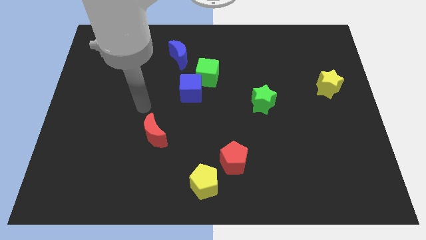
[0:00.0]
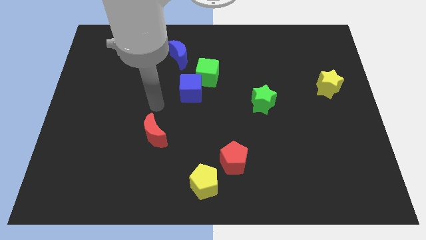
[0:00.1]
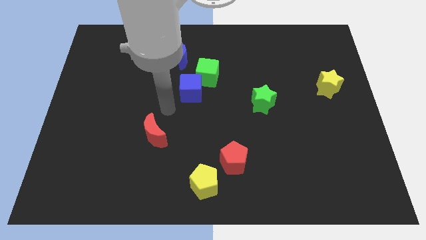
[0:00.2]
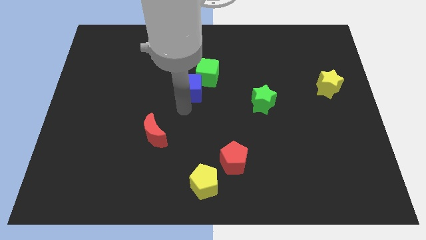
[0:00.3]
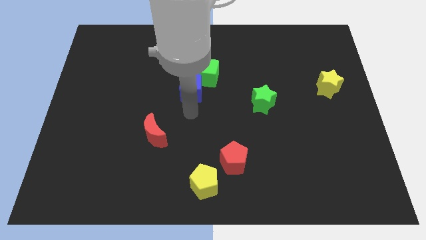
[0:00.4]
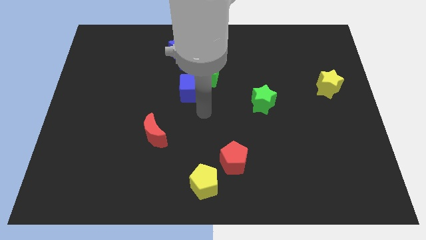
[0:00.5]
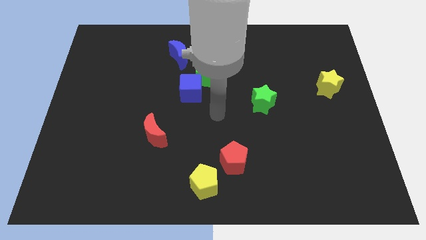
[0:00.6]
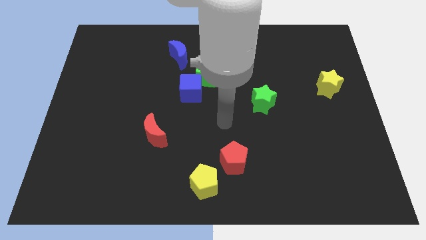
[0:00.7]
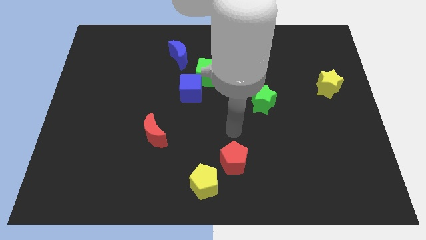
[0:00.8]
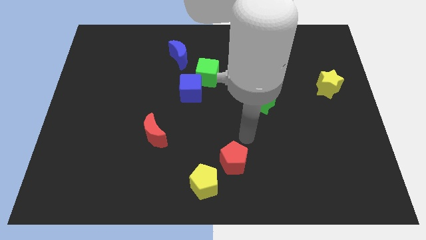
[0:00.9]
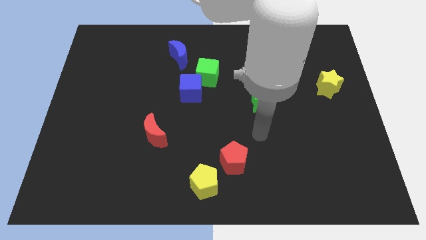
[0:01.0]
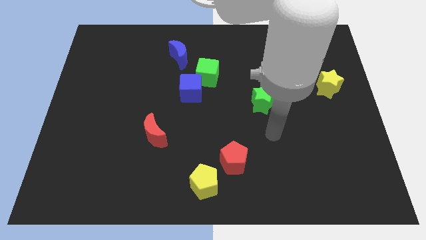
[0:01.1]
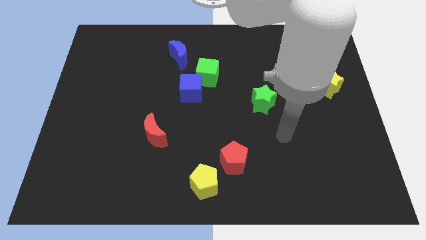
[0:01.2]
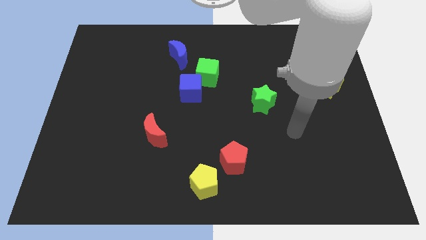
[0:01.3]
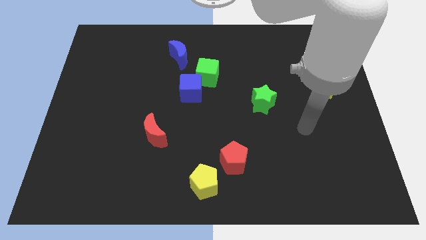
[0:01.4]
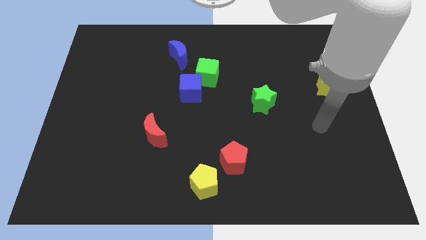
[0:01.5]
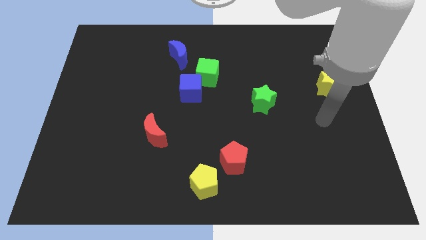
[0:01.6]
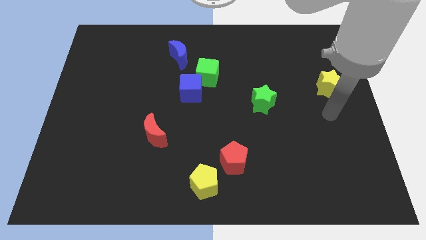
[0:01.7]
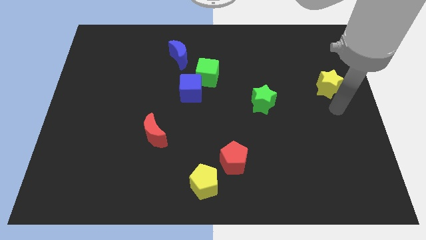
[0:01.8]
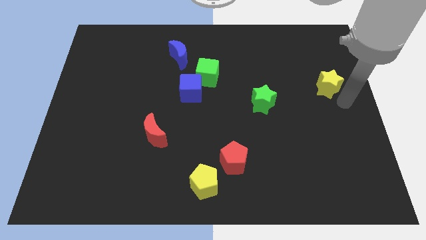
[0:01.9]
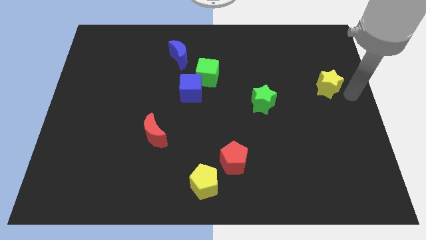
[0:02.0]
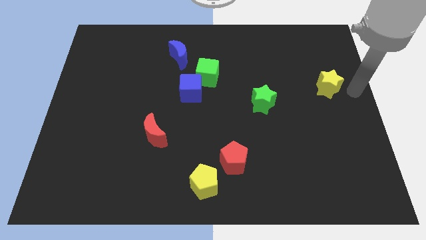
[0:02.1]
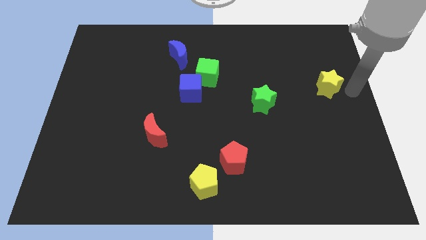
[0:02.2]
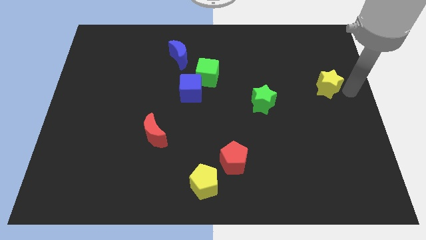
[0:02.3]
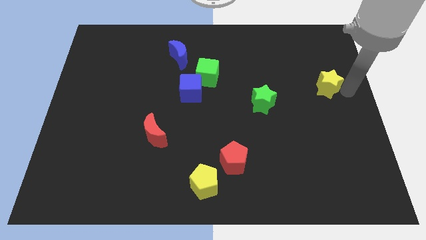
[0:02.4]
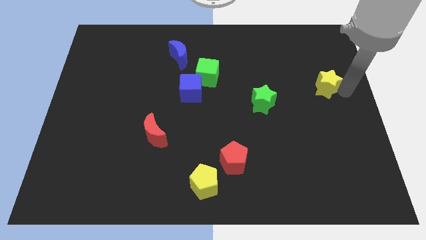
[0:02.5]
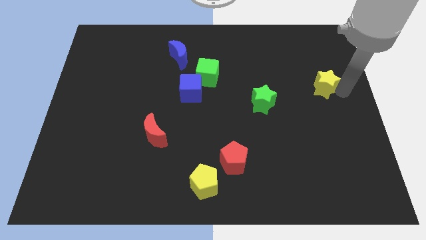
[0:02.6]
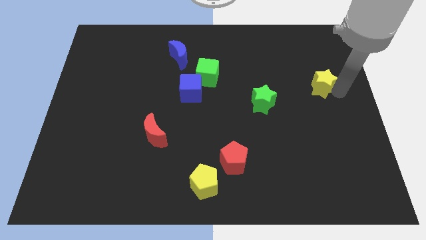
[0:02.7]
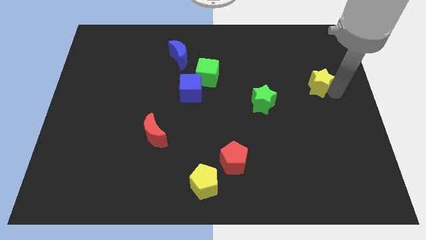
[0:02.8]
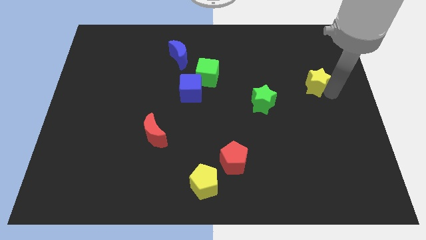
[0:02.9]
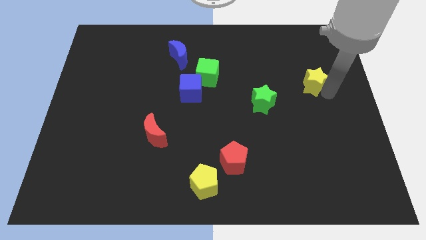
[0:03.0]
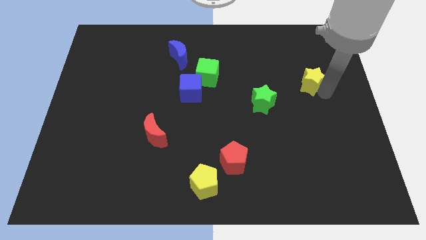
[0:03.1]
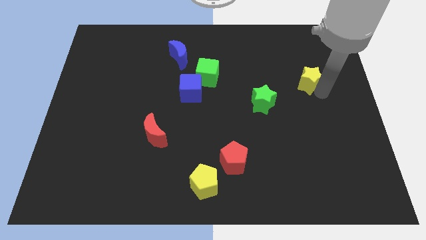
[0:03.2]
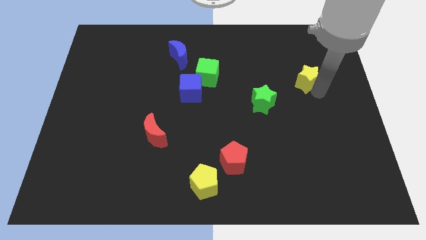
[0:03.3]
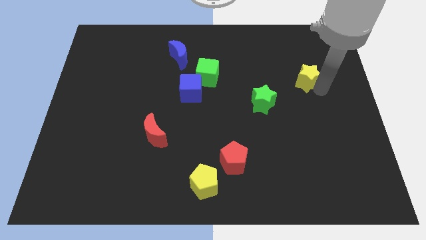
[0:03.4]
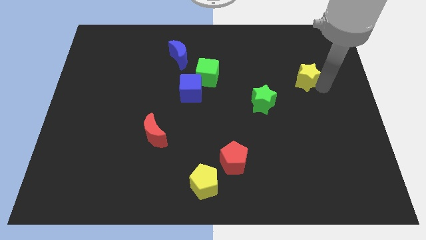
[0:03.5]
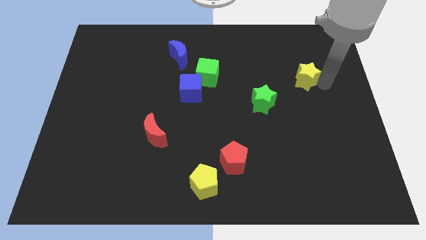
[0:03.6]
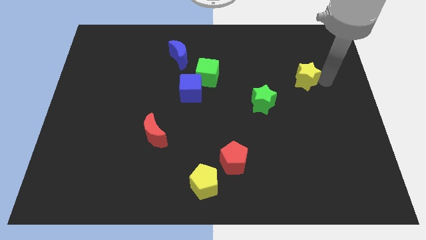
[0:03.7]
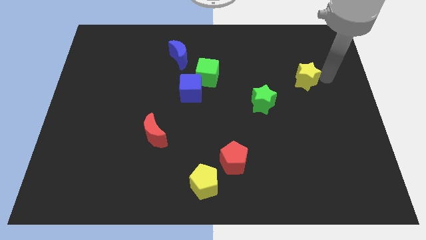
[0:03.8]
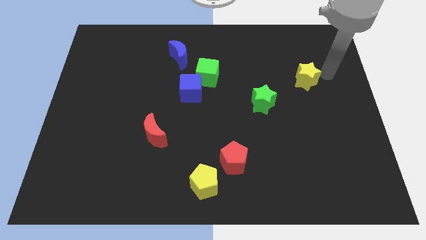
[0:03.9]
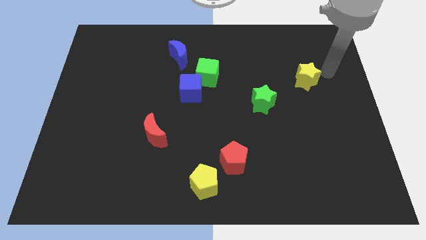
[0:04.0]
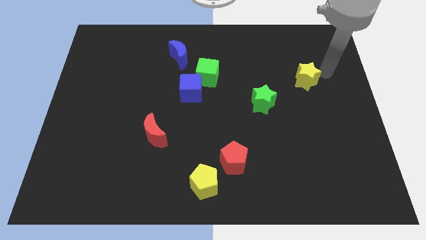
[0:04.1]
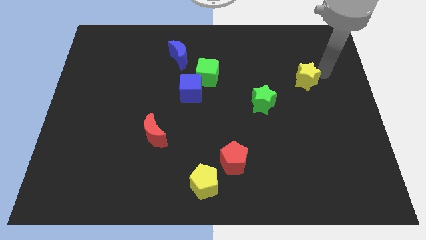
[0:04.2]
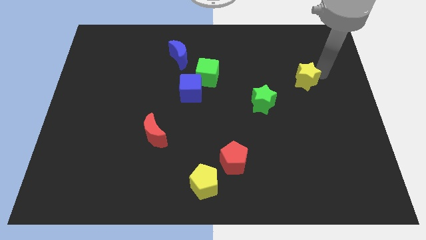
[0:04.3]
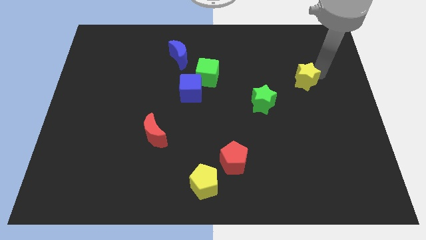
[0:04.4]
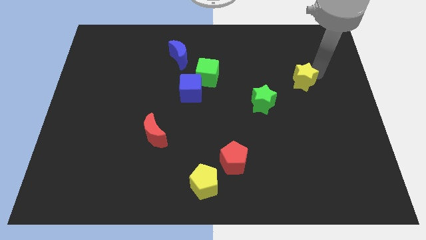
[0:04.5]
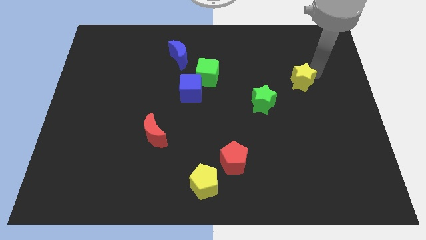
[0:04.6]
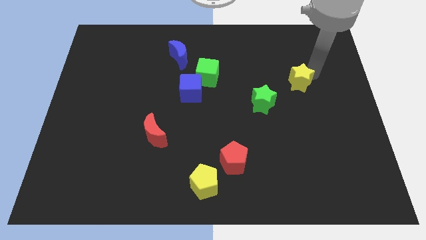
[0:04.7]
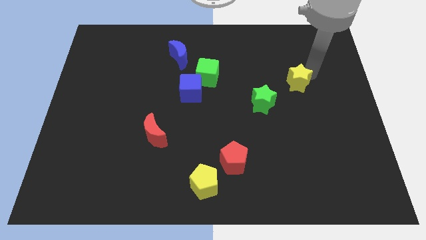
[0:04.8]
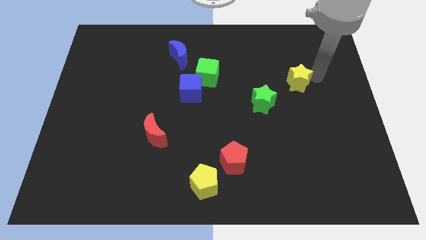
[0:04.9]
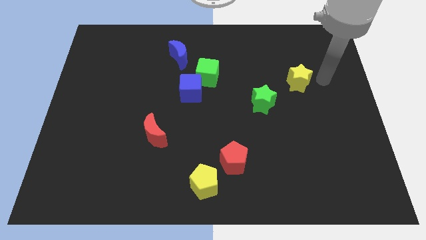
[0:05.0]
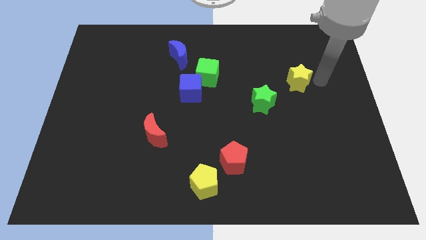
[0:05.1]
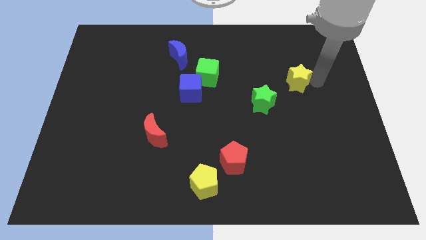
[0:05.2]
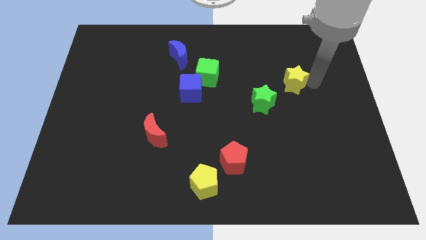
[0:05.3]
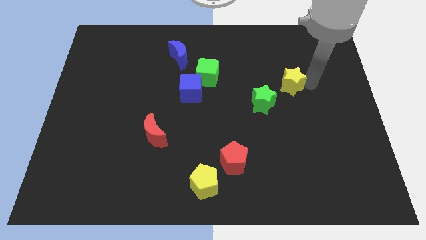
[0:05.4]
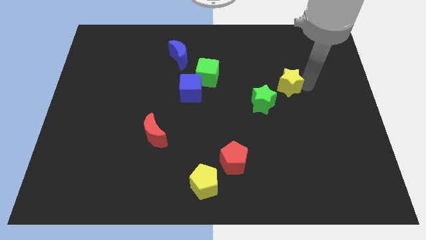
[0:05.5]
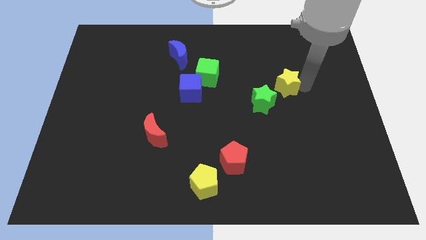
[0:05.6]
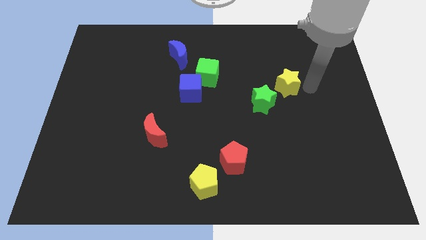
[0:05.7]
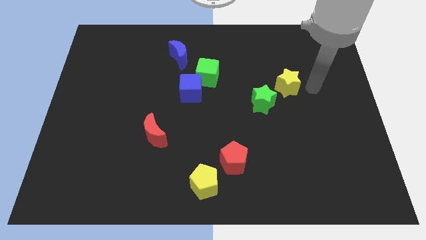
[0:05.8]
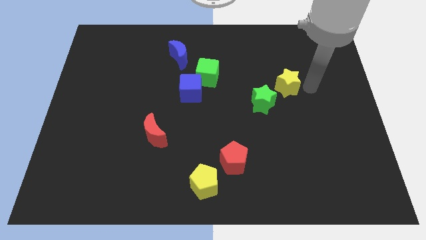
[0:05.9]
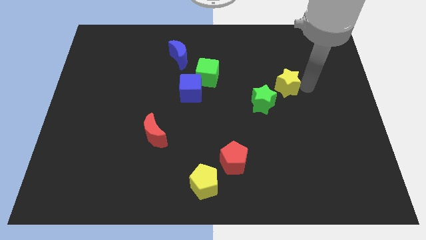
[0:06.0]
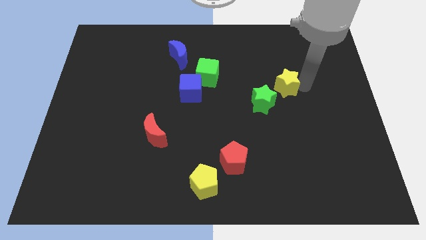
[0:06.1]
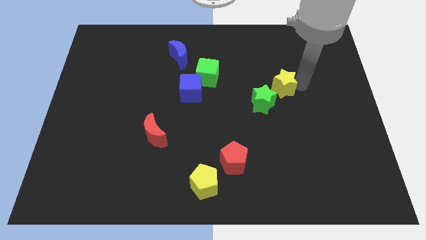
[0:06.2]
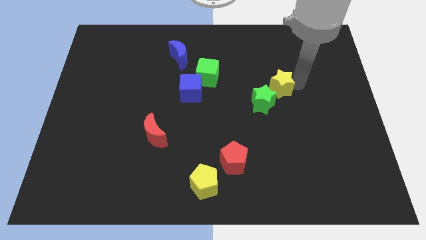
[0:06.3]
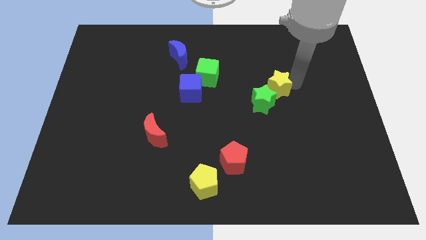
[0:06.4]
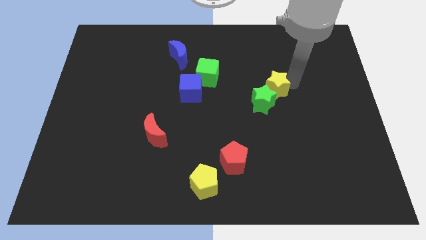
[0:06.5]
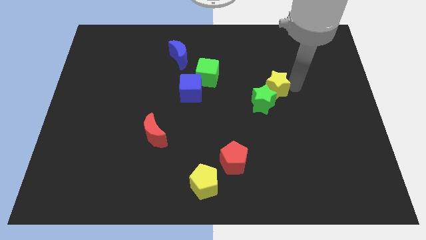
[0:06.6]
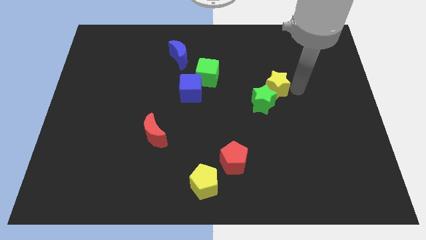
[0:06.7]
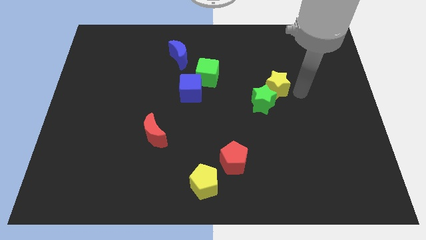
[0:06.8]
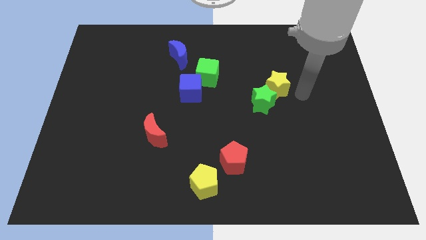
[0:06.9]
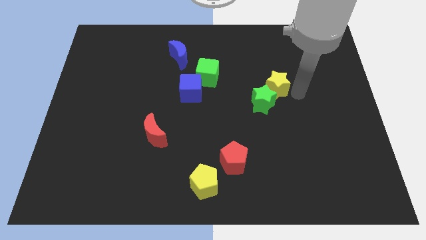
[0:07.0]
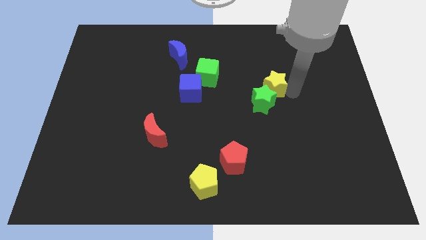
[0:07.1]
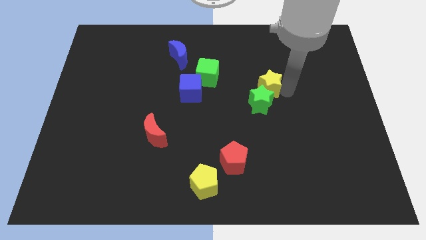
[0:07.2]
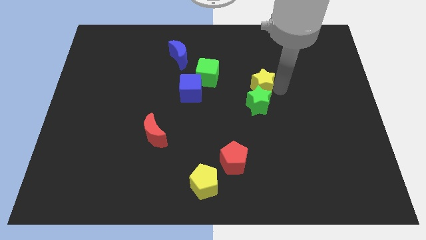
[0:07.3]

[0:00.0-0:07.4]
move the yellow star to the center of the board
